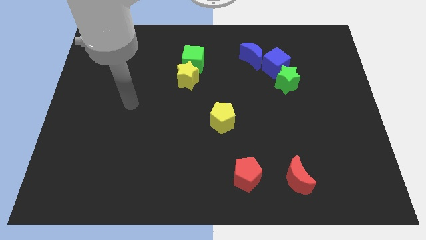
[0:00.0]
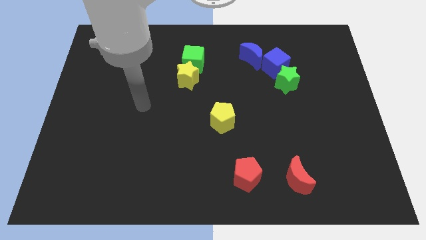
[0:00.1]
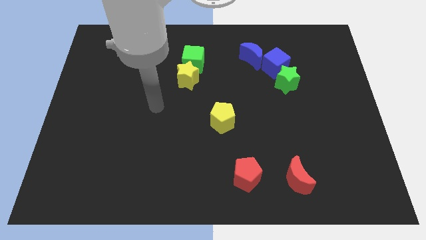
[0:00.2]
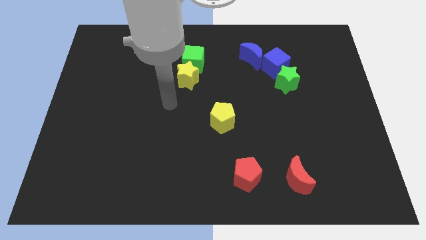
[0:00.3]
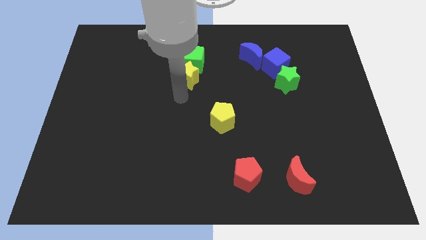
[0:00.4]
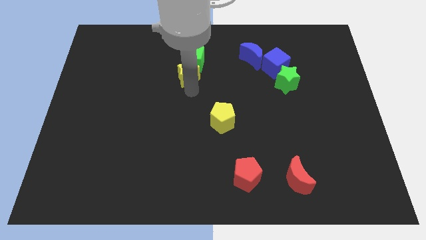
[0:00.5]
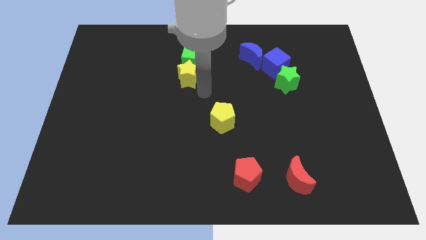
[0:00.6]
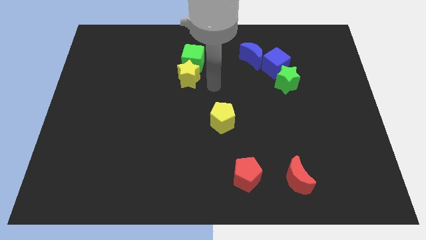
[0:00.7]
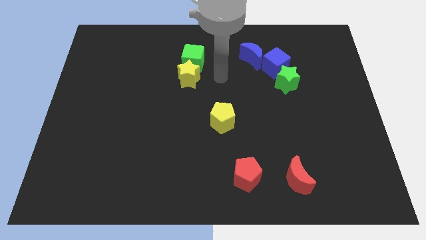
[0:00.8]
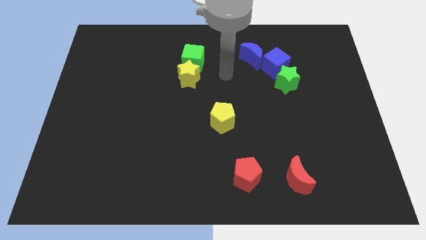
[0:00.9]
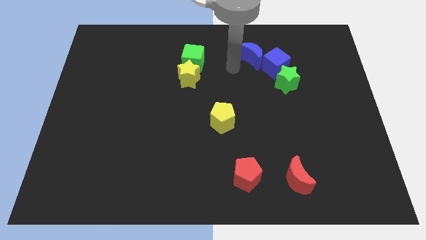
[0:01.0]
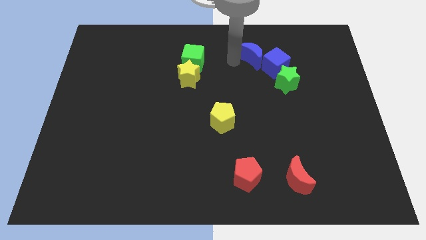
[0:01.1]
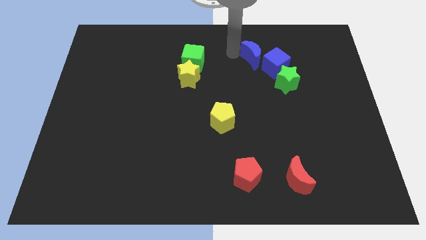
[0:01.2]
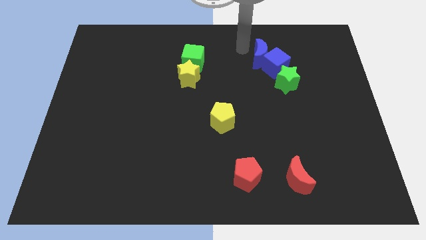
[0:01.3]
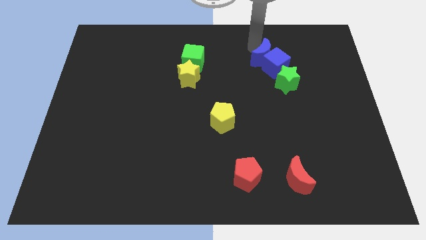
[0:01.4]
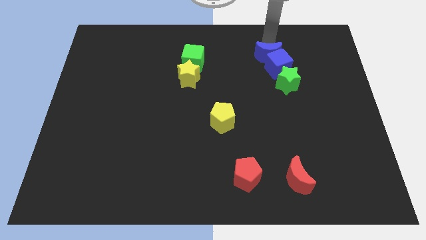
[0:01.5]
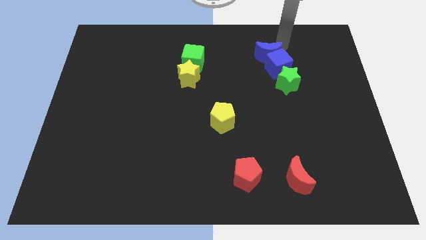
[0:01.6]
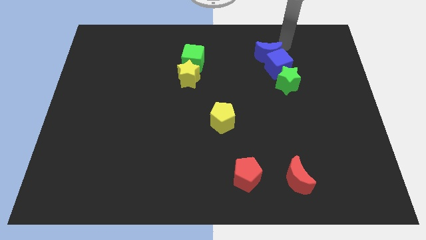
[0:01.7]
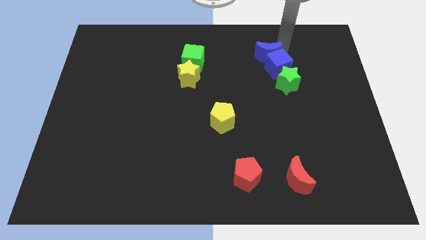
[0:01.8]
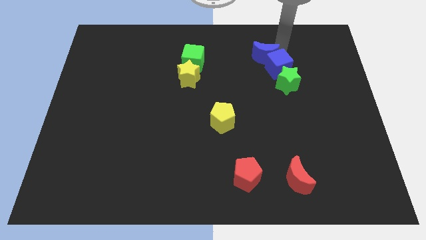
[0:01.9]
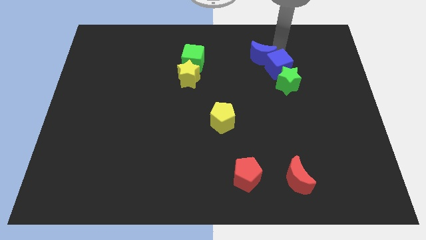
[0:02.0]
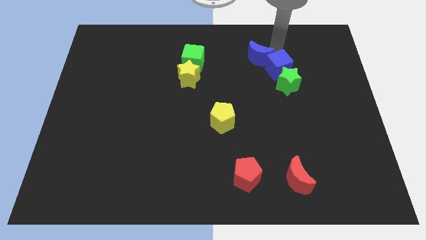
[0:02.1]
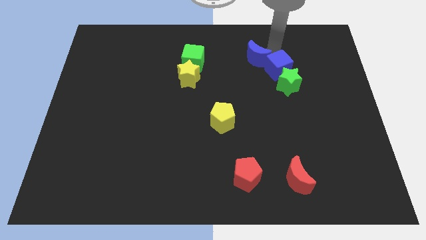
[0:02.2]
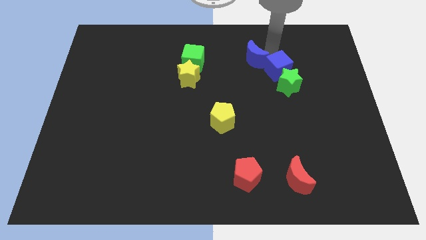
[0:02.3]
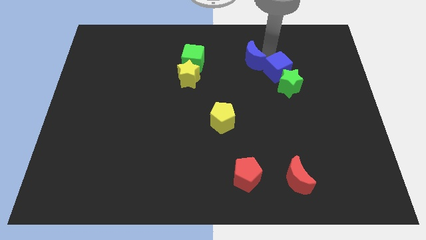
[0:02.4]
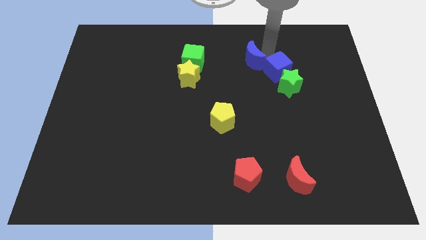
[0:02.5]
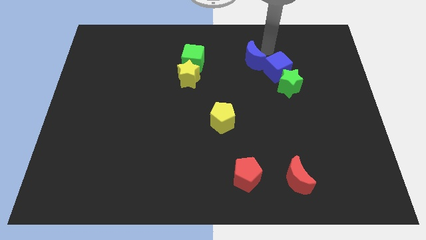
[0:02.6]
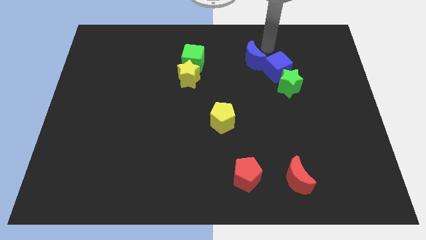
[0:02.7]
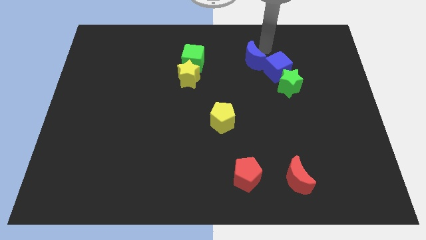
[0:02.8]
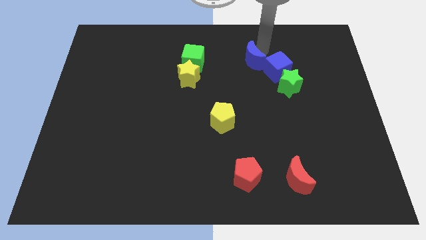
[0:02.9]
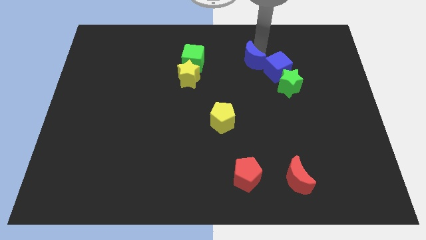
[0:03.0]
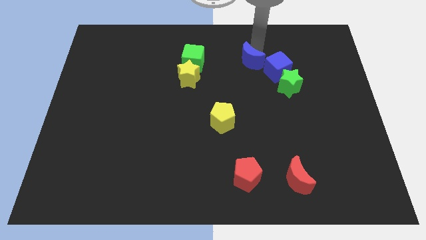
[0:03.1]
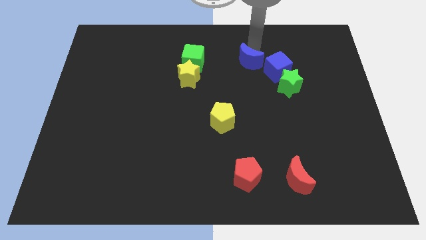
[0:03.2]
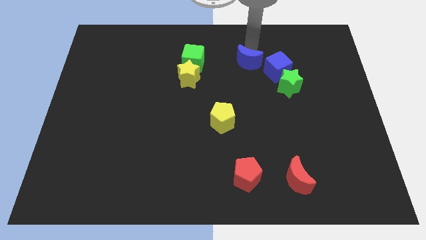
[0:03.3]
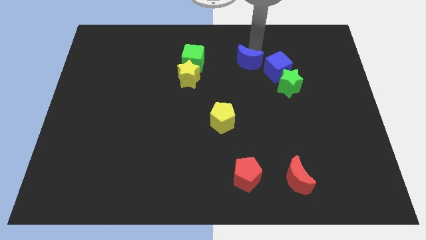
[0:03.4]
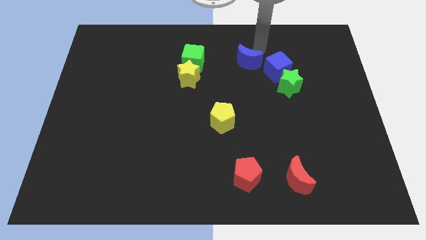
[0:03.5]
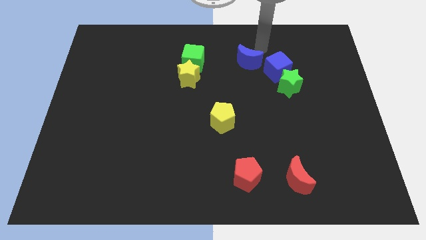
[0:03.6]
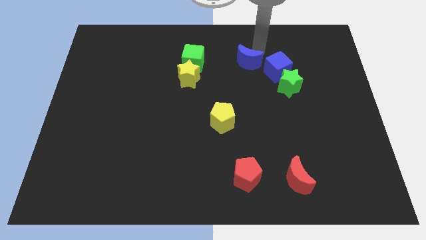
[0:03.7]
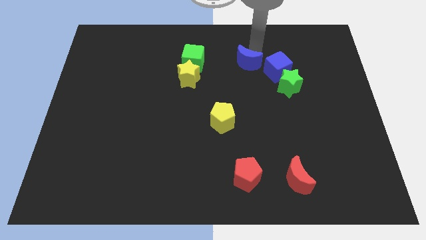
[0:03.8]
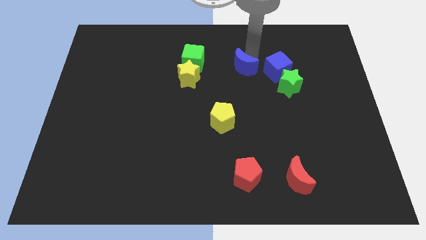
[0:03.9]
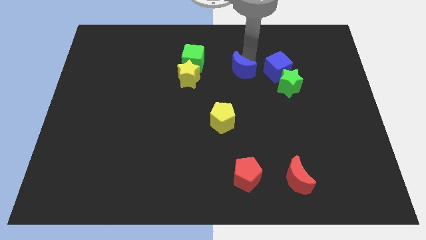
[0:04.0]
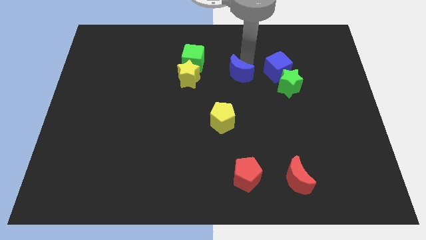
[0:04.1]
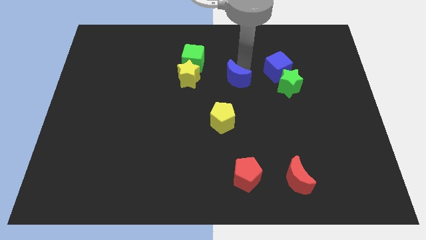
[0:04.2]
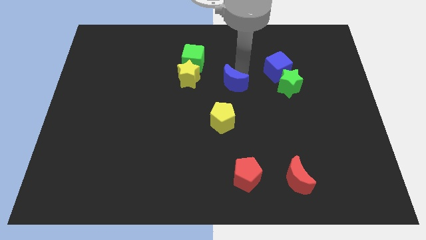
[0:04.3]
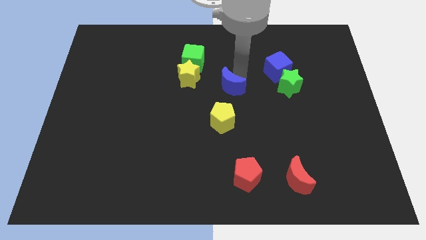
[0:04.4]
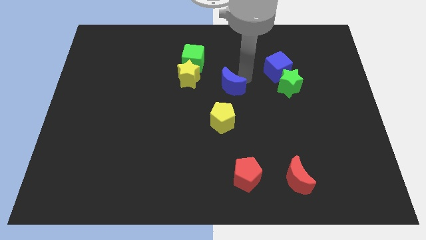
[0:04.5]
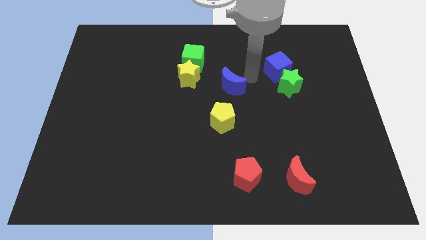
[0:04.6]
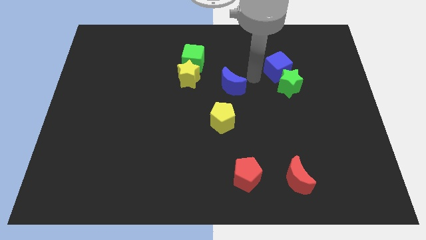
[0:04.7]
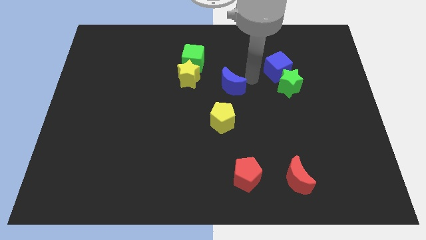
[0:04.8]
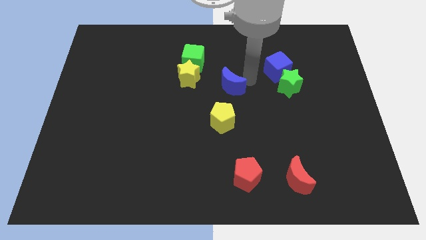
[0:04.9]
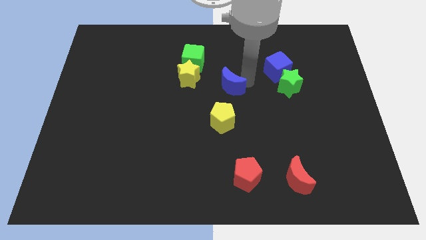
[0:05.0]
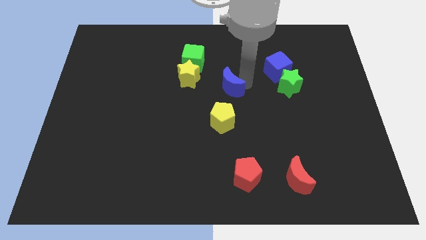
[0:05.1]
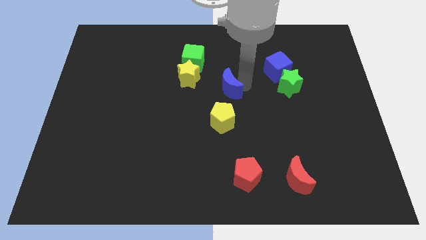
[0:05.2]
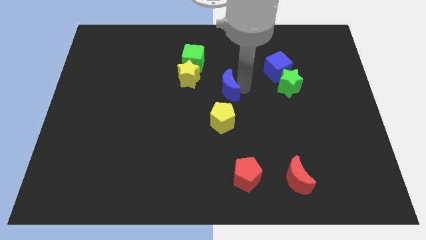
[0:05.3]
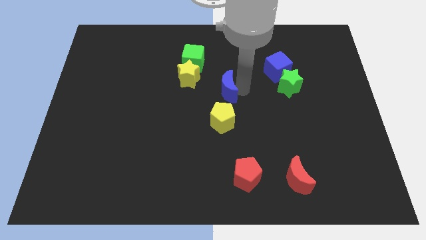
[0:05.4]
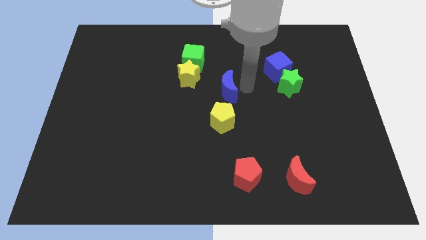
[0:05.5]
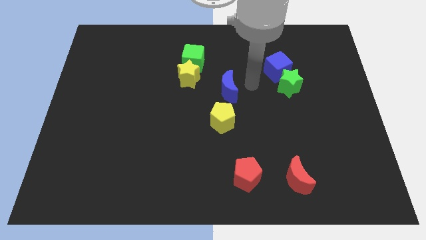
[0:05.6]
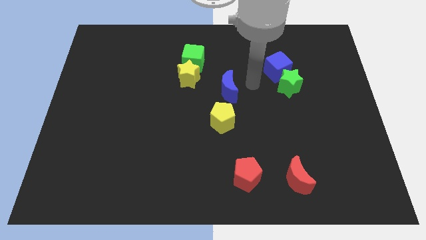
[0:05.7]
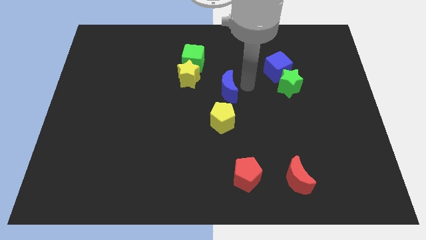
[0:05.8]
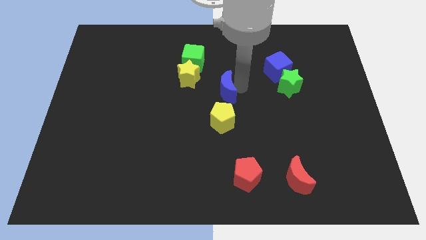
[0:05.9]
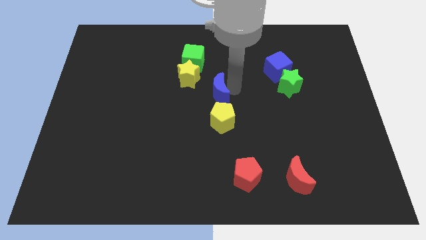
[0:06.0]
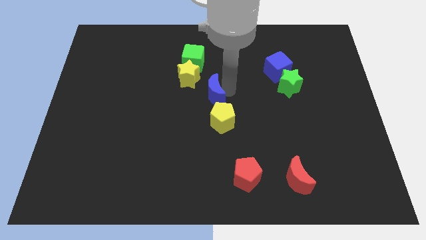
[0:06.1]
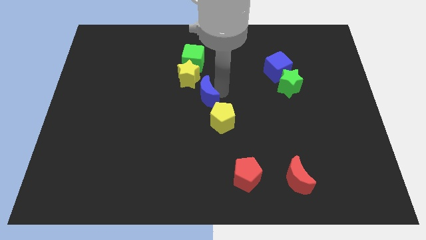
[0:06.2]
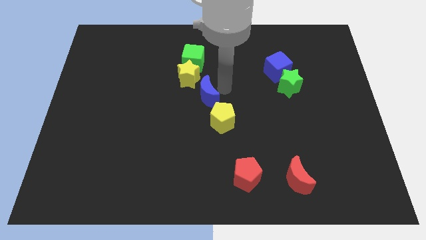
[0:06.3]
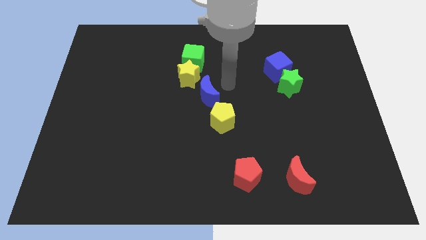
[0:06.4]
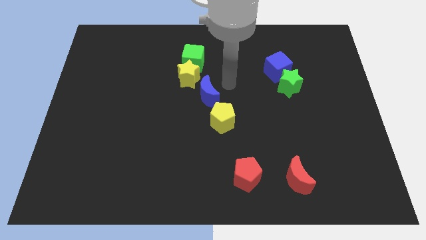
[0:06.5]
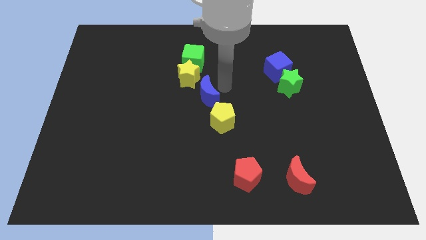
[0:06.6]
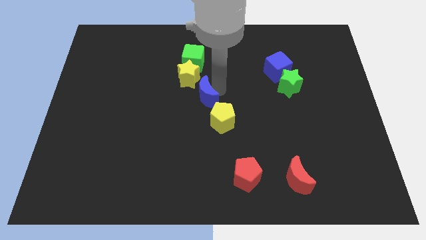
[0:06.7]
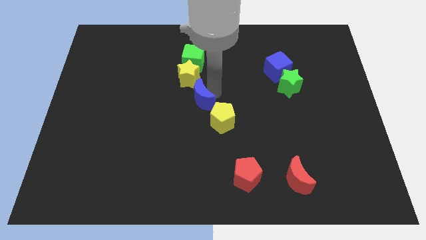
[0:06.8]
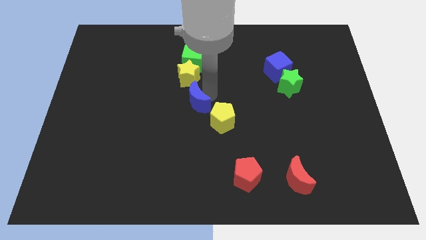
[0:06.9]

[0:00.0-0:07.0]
move the blue moon down and left diagonally

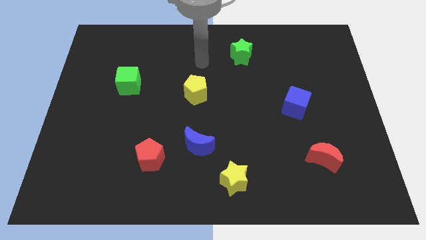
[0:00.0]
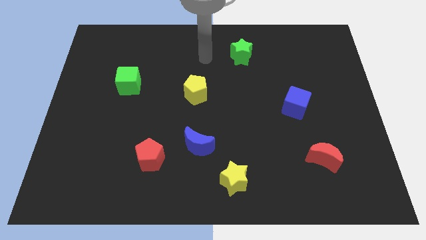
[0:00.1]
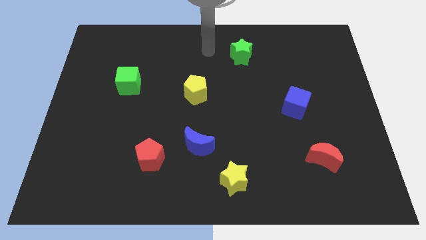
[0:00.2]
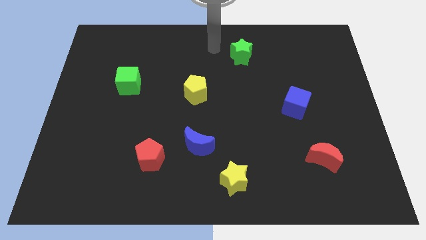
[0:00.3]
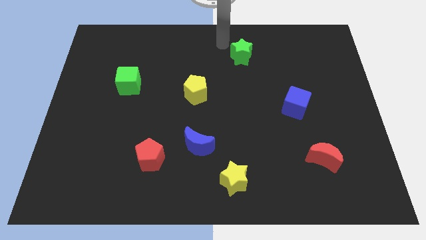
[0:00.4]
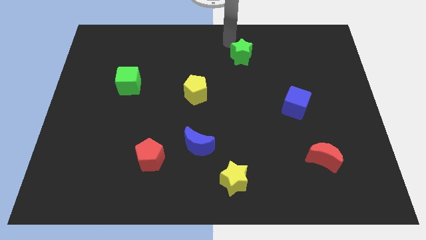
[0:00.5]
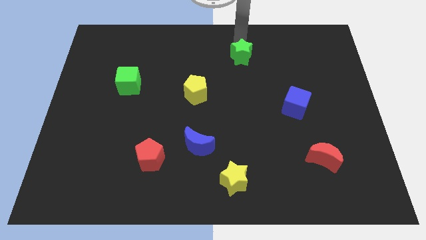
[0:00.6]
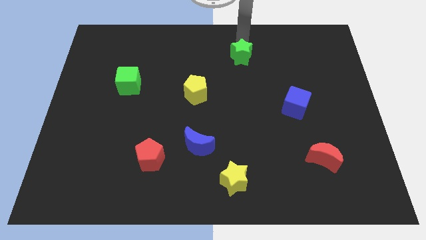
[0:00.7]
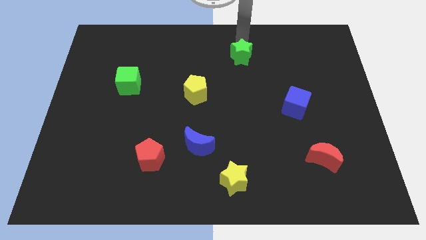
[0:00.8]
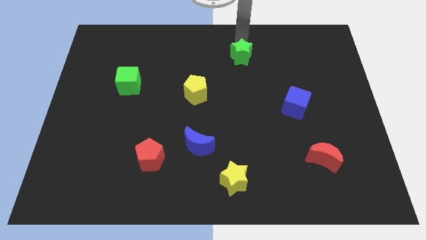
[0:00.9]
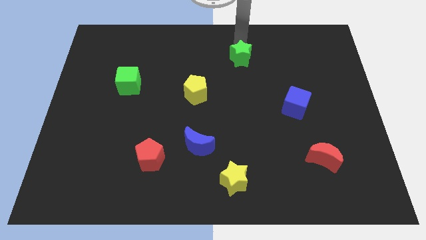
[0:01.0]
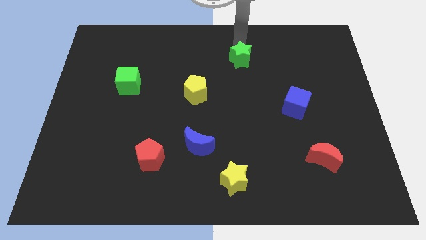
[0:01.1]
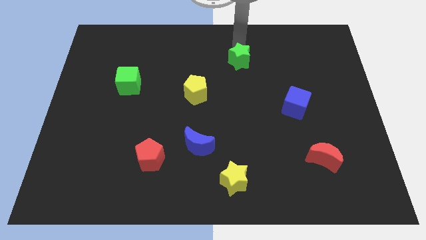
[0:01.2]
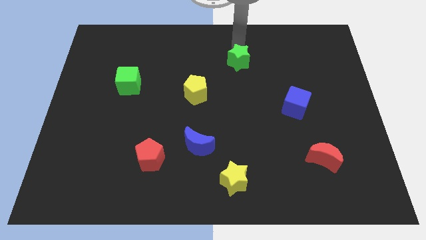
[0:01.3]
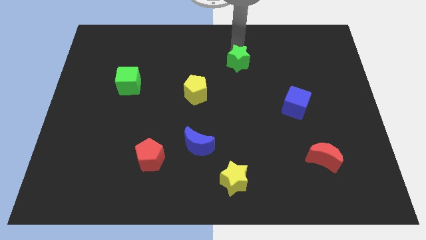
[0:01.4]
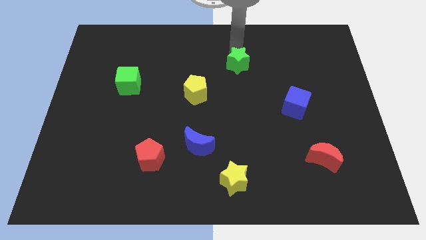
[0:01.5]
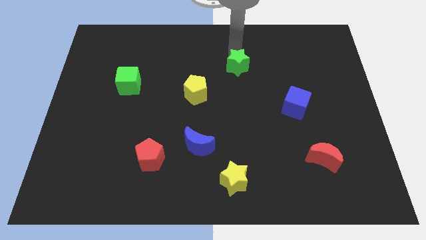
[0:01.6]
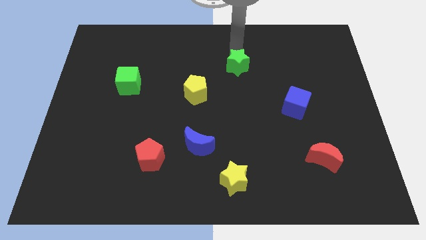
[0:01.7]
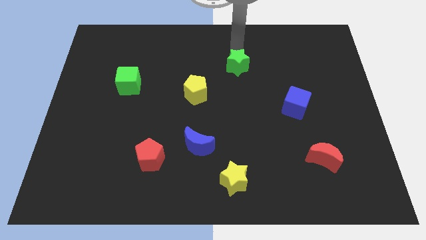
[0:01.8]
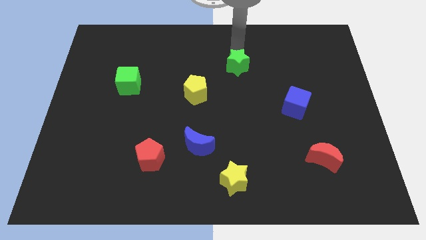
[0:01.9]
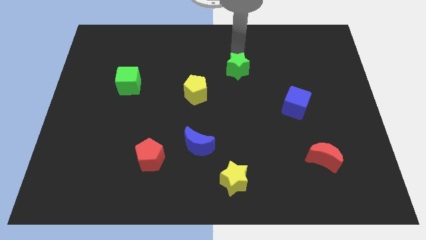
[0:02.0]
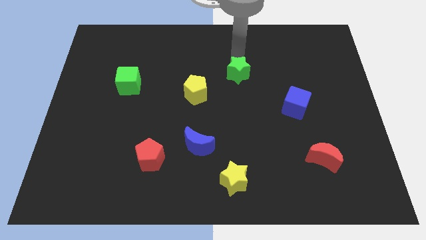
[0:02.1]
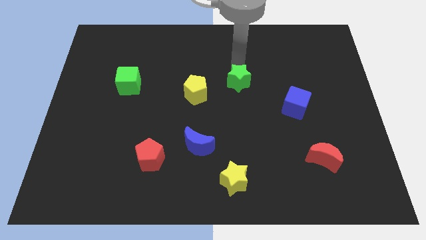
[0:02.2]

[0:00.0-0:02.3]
slightly slide the green star downwards
